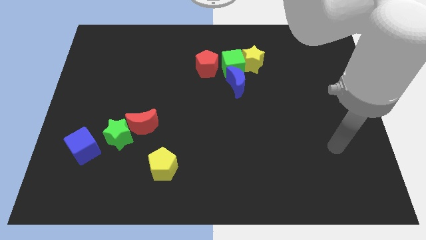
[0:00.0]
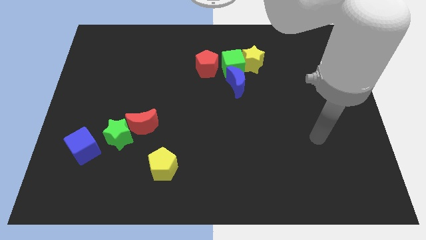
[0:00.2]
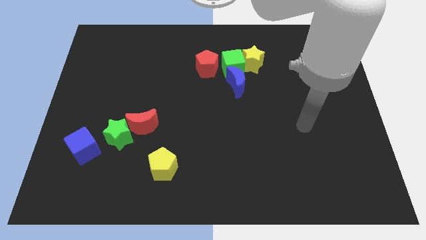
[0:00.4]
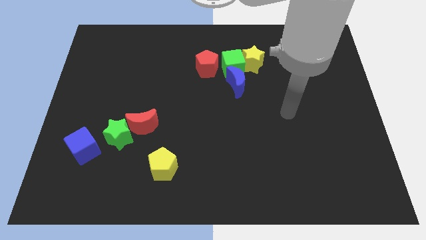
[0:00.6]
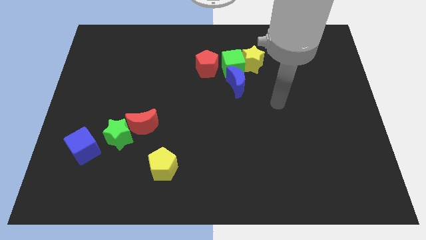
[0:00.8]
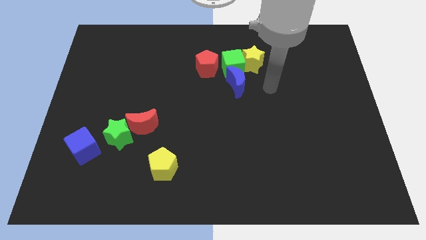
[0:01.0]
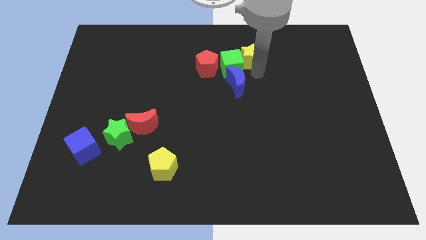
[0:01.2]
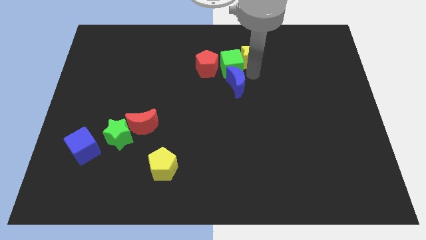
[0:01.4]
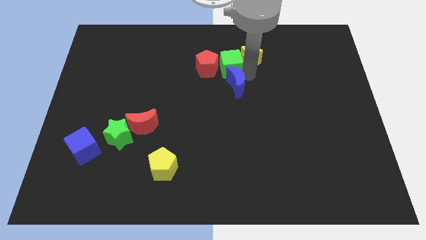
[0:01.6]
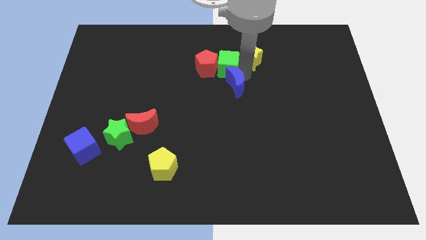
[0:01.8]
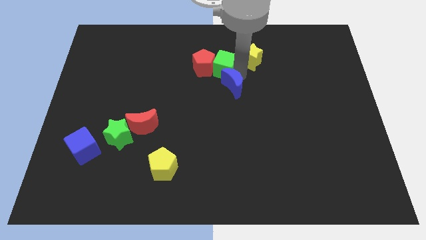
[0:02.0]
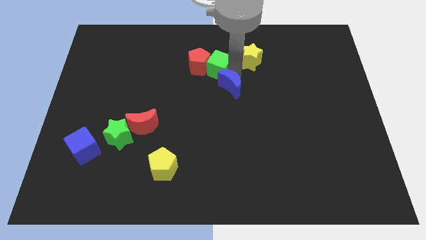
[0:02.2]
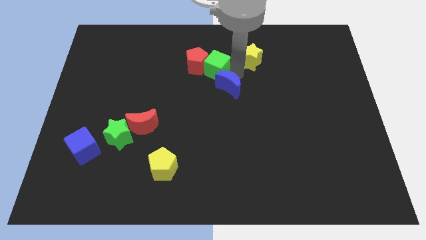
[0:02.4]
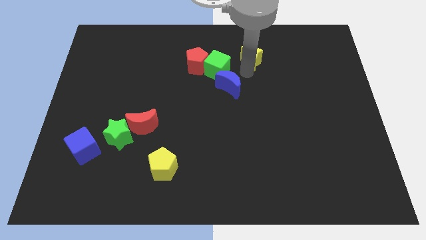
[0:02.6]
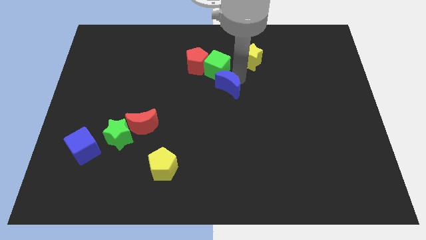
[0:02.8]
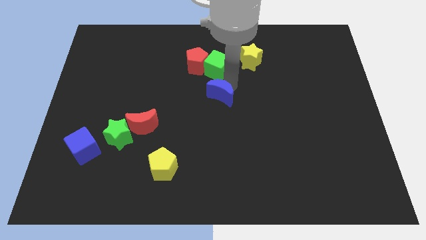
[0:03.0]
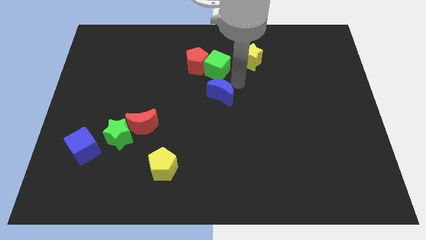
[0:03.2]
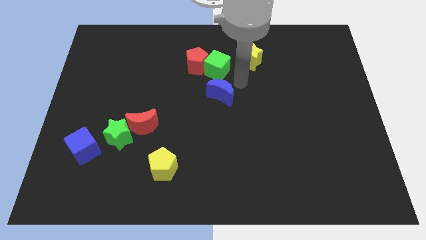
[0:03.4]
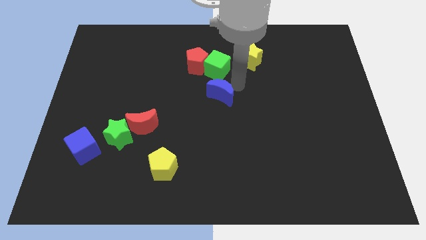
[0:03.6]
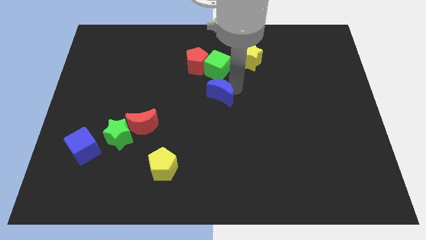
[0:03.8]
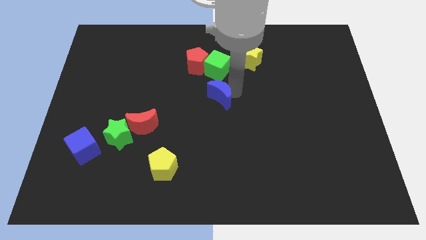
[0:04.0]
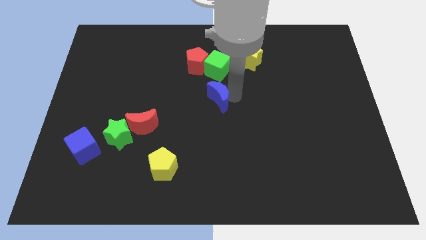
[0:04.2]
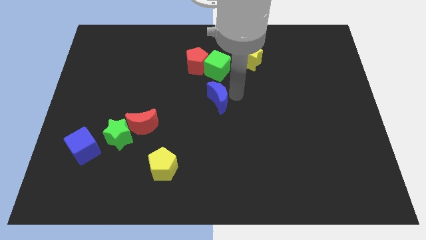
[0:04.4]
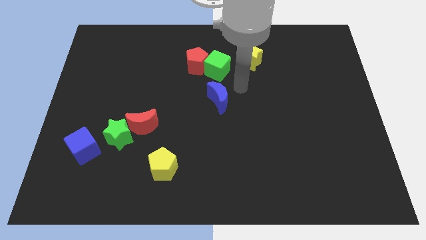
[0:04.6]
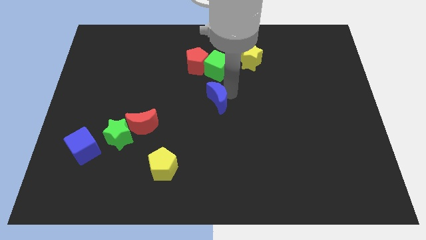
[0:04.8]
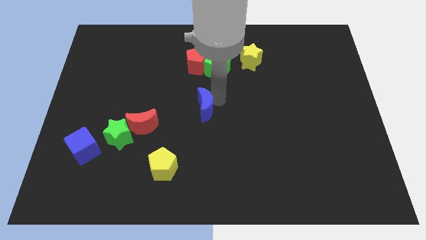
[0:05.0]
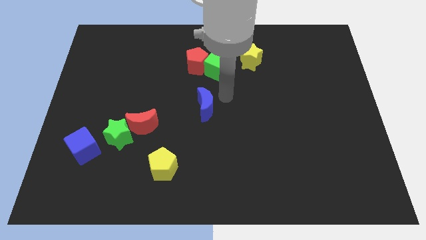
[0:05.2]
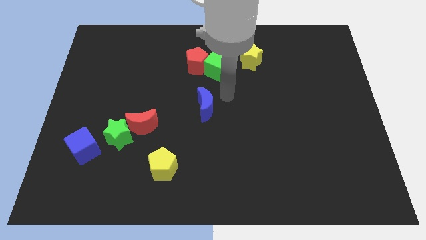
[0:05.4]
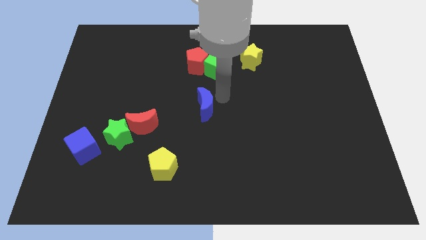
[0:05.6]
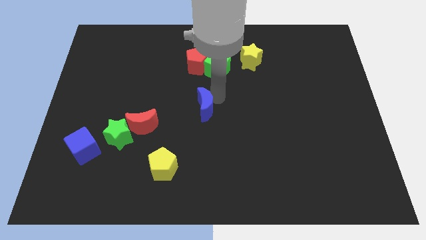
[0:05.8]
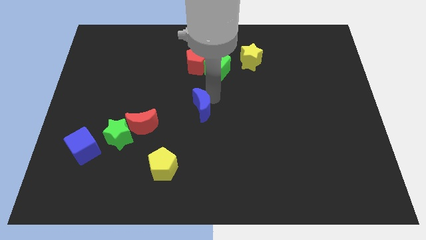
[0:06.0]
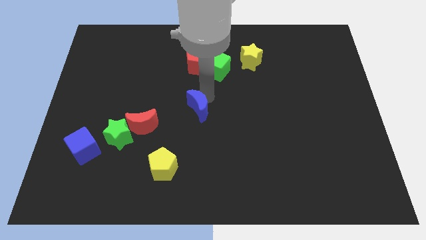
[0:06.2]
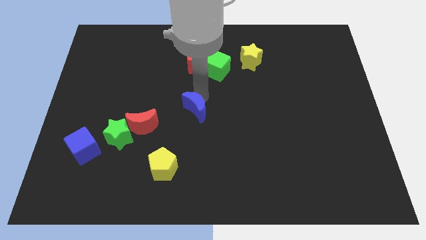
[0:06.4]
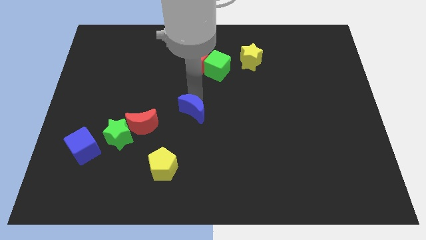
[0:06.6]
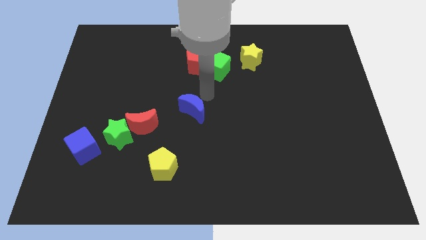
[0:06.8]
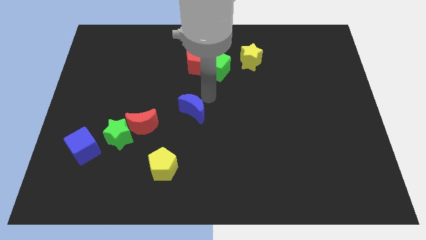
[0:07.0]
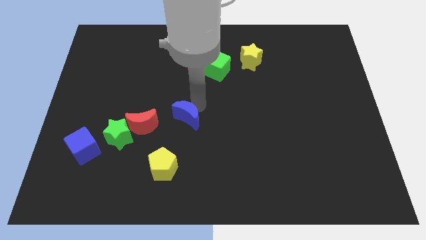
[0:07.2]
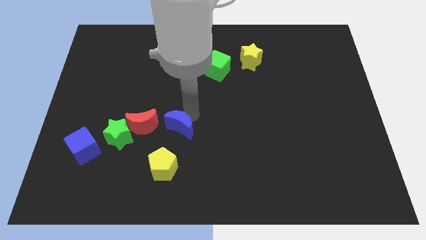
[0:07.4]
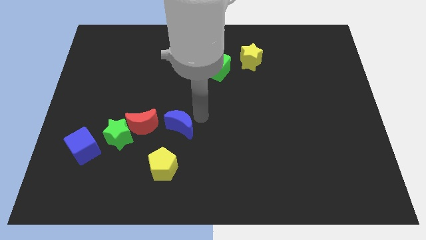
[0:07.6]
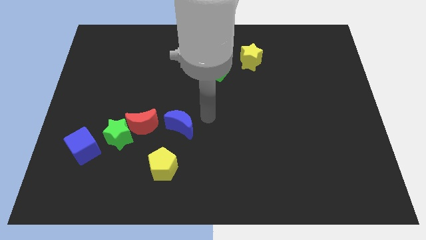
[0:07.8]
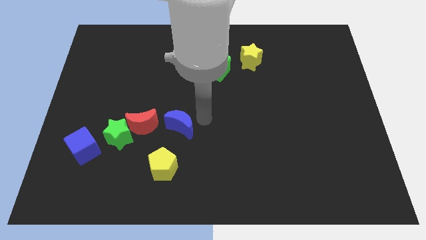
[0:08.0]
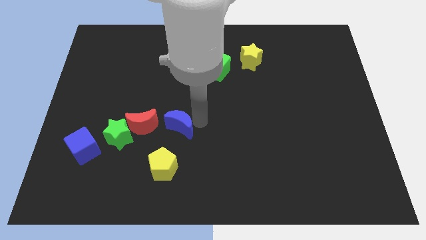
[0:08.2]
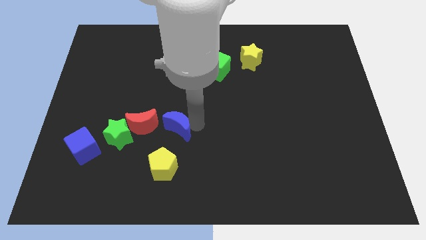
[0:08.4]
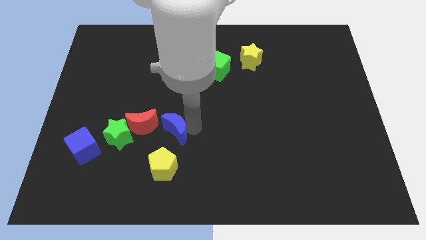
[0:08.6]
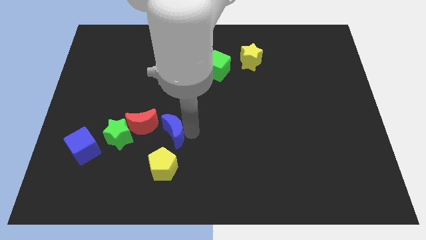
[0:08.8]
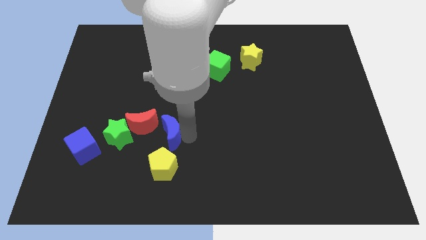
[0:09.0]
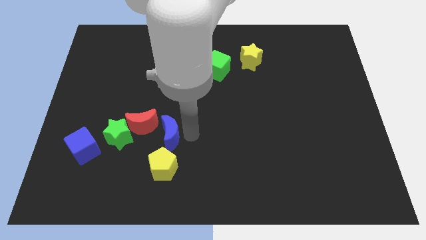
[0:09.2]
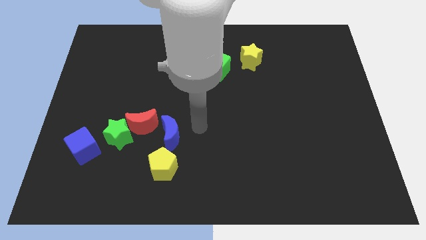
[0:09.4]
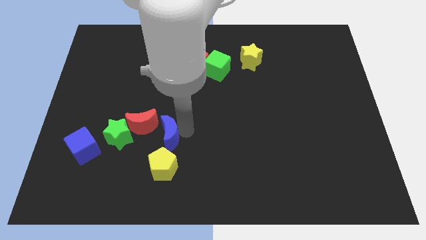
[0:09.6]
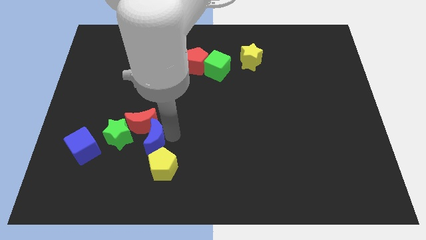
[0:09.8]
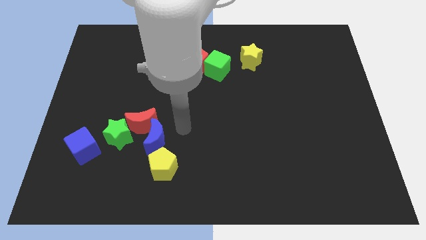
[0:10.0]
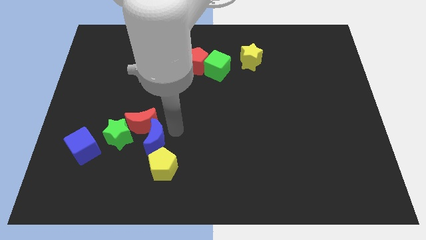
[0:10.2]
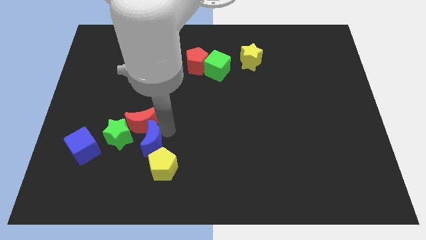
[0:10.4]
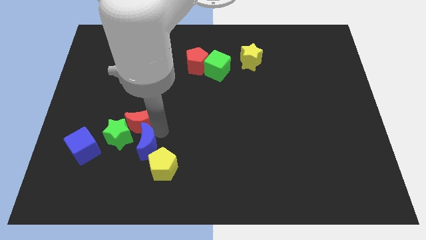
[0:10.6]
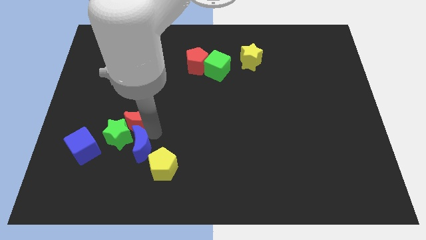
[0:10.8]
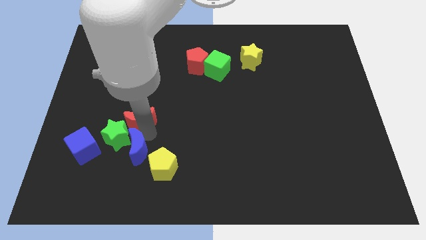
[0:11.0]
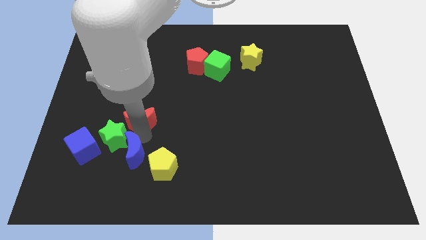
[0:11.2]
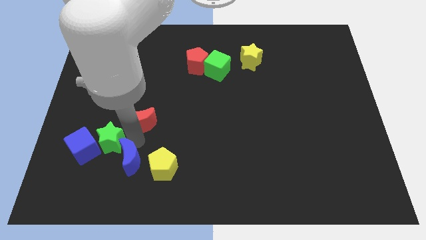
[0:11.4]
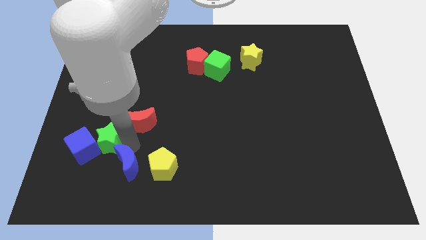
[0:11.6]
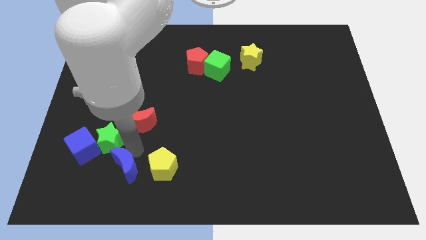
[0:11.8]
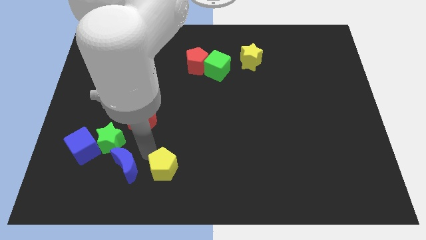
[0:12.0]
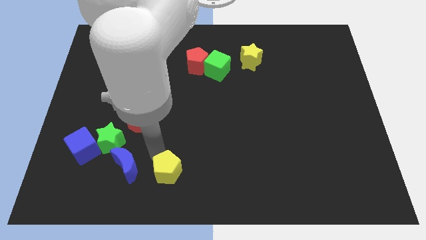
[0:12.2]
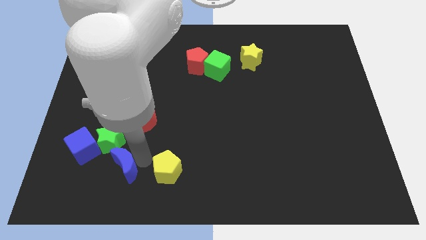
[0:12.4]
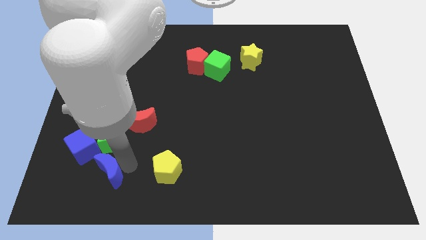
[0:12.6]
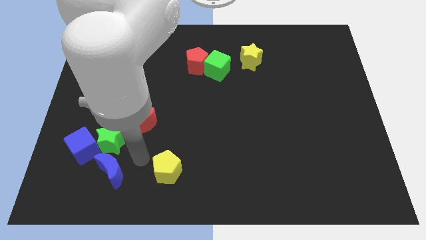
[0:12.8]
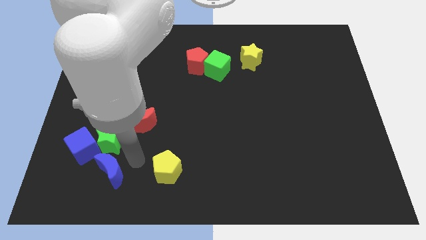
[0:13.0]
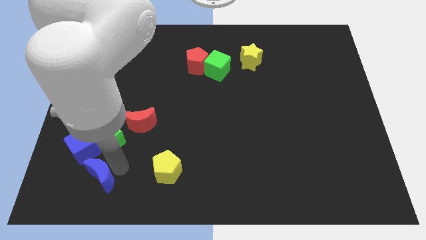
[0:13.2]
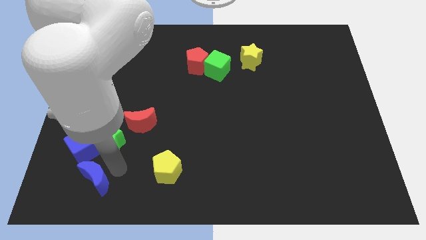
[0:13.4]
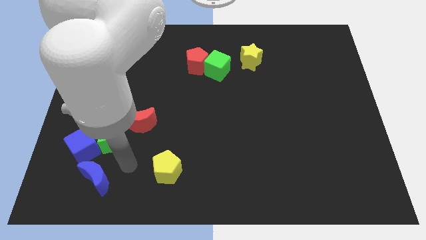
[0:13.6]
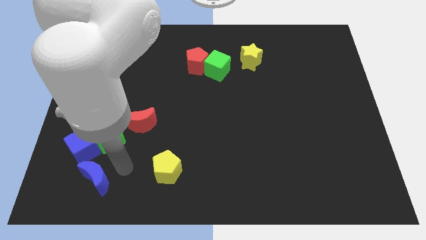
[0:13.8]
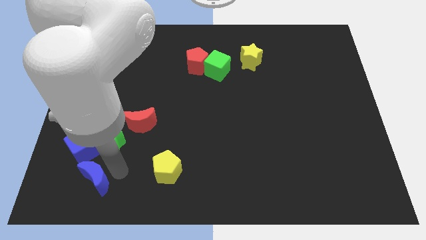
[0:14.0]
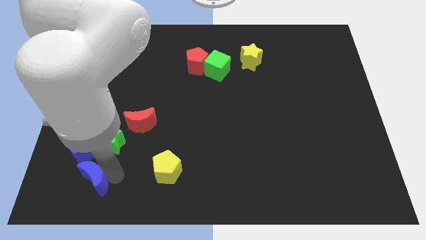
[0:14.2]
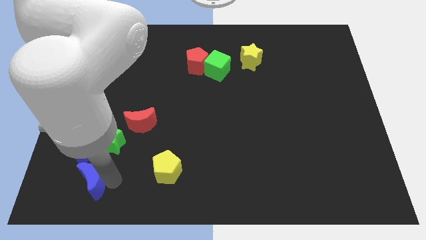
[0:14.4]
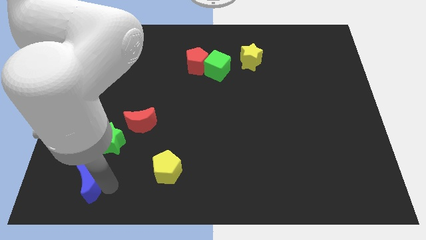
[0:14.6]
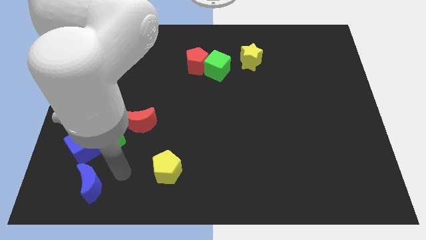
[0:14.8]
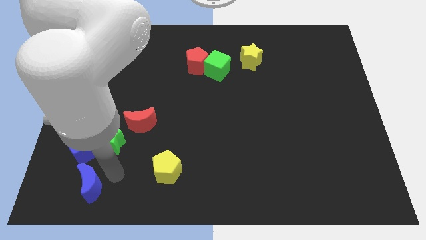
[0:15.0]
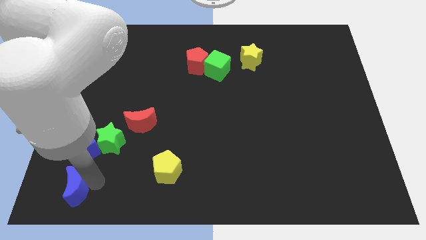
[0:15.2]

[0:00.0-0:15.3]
slide the blue moon to the bottom left
